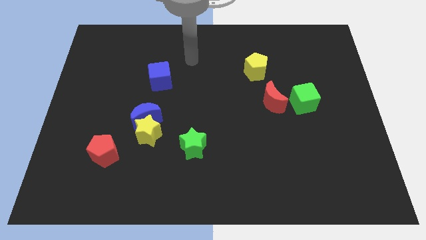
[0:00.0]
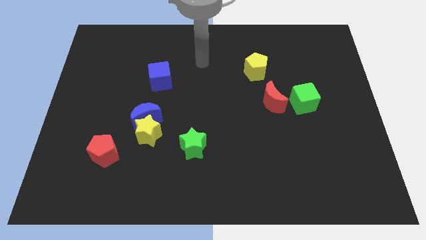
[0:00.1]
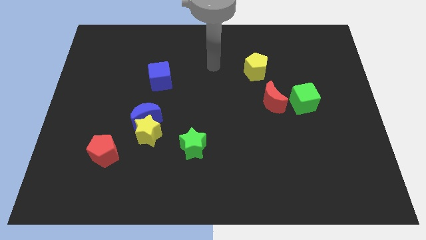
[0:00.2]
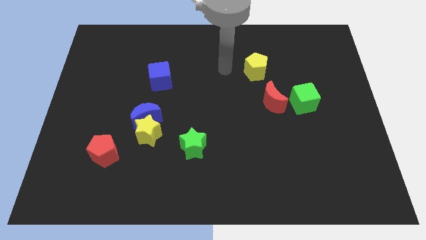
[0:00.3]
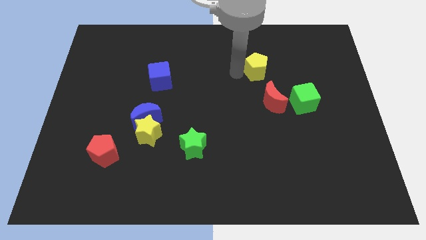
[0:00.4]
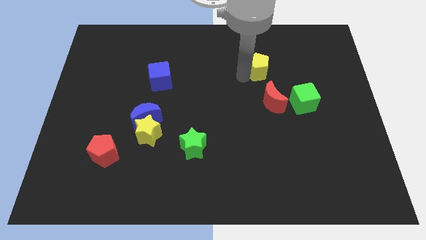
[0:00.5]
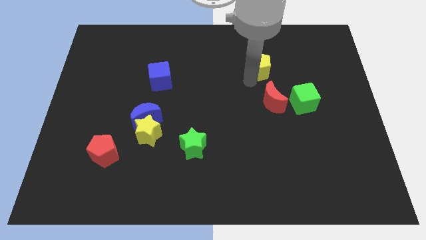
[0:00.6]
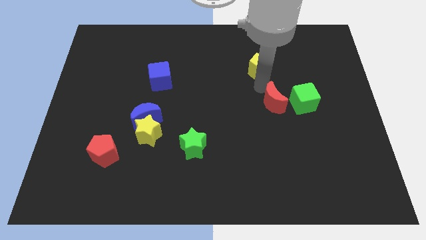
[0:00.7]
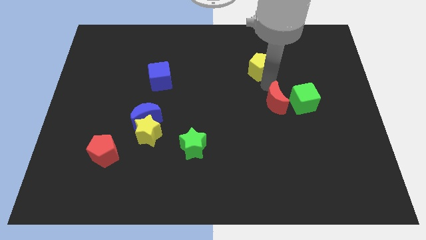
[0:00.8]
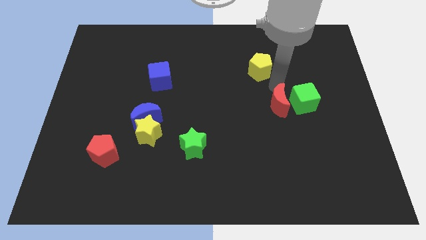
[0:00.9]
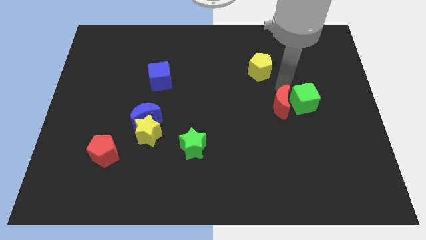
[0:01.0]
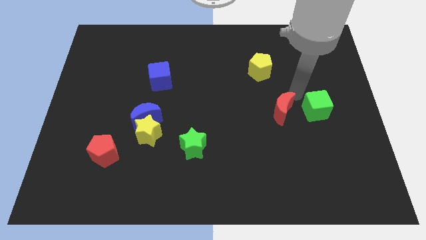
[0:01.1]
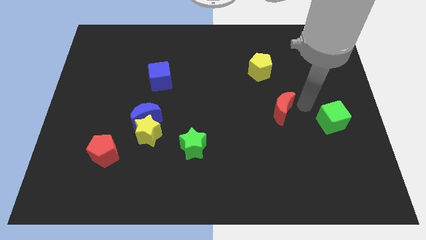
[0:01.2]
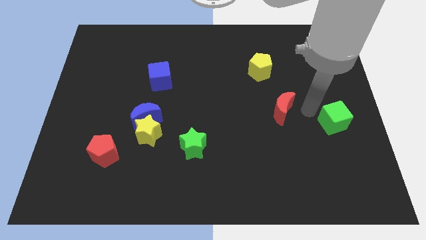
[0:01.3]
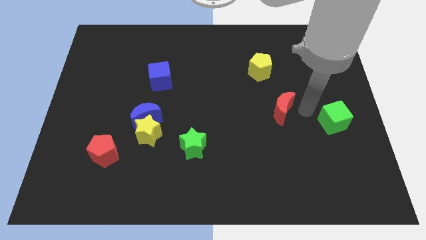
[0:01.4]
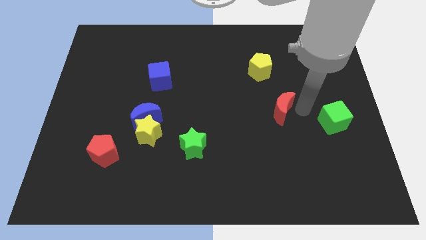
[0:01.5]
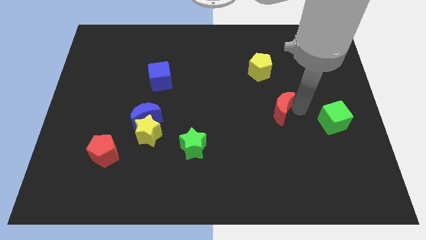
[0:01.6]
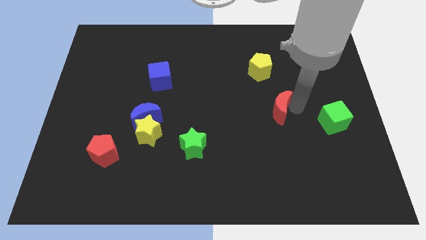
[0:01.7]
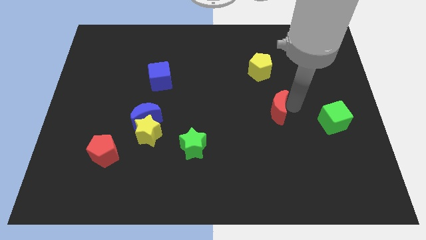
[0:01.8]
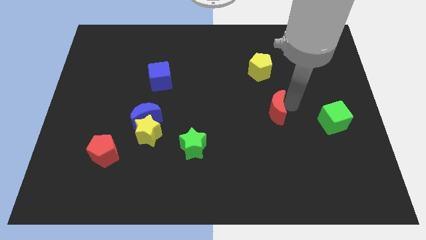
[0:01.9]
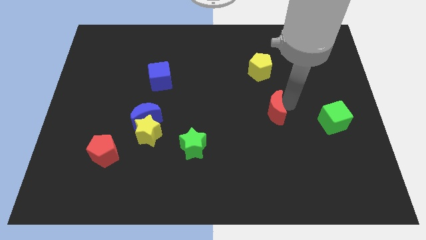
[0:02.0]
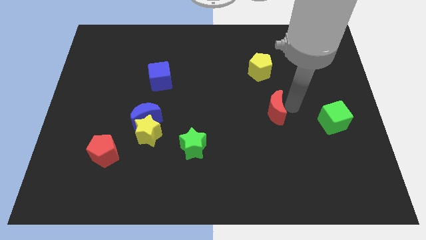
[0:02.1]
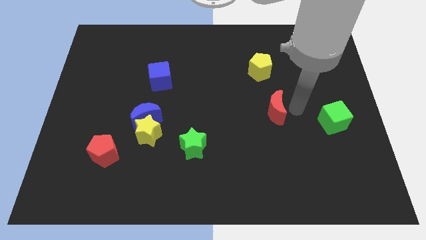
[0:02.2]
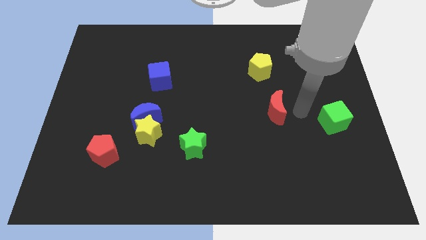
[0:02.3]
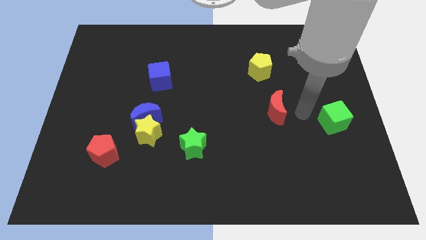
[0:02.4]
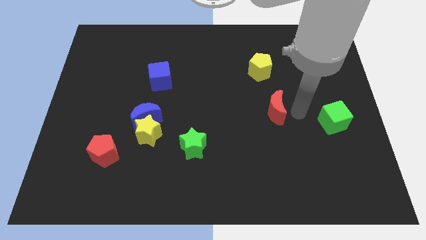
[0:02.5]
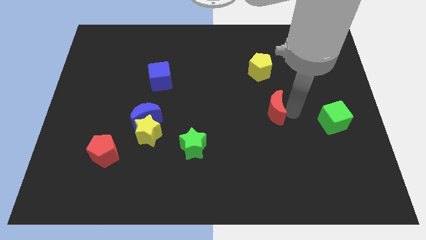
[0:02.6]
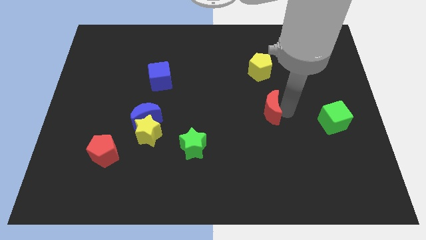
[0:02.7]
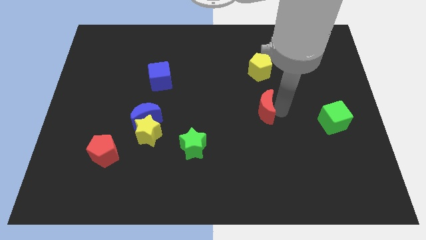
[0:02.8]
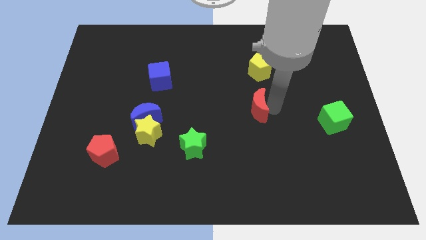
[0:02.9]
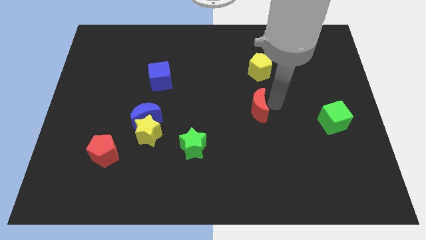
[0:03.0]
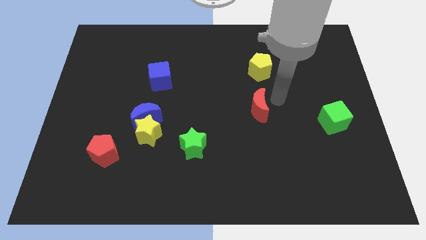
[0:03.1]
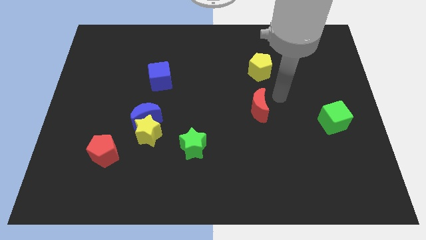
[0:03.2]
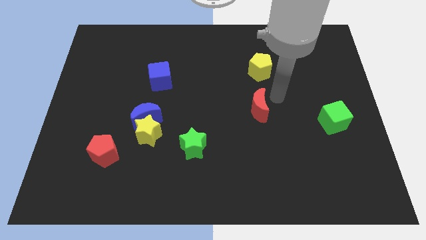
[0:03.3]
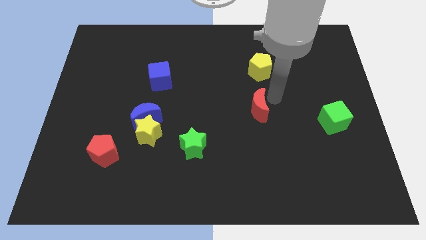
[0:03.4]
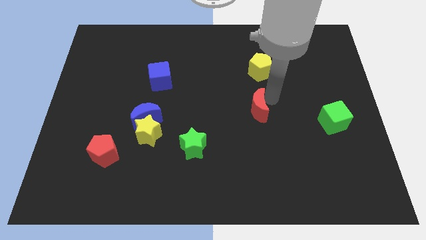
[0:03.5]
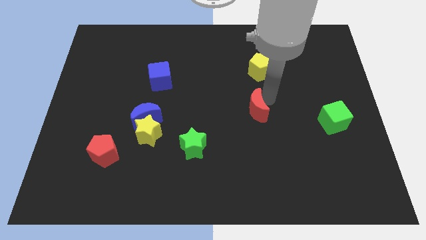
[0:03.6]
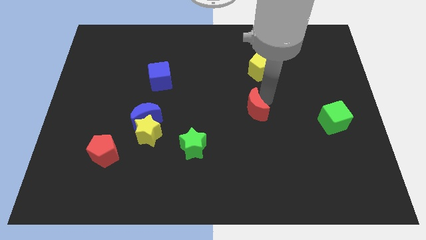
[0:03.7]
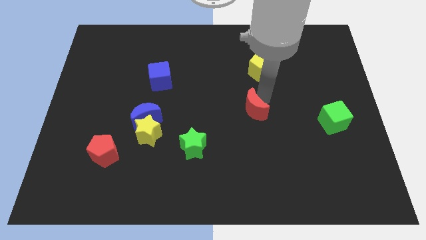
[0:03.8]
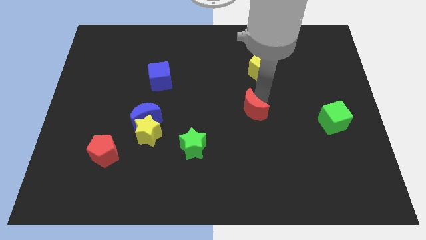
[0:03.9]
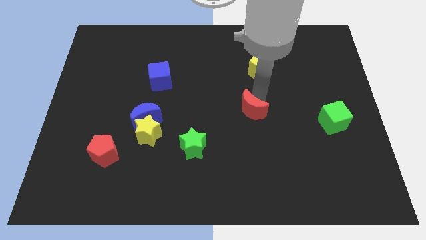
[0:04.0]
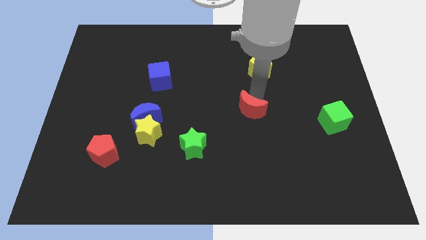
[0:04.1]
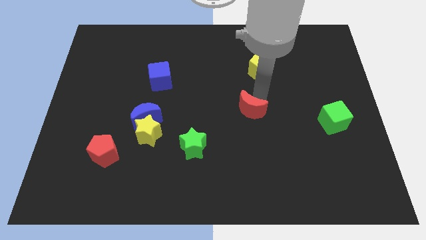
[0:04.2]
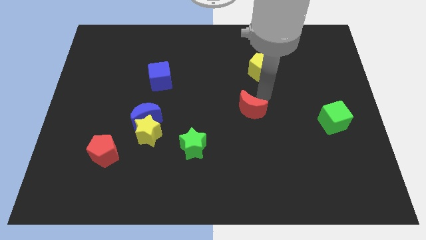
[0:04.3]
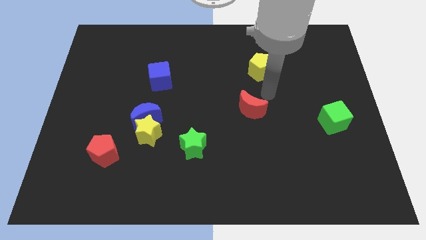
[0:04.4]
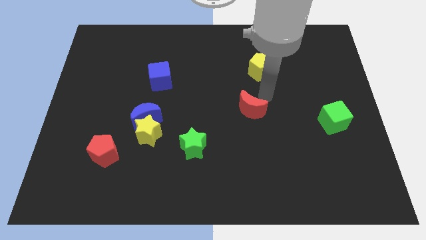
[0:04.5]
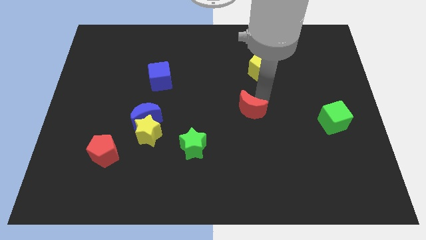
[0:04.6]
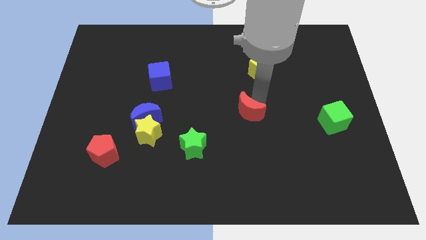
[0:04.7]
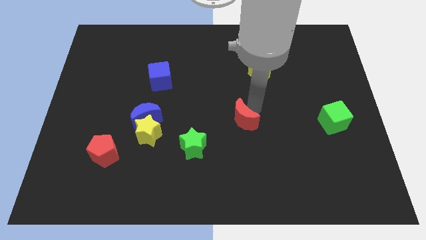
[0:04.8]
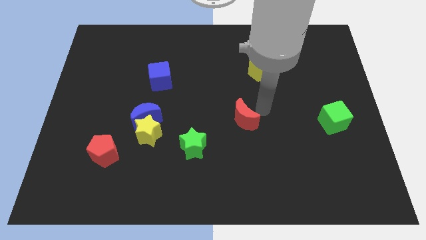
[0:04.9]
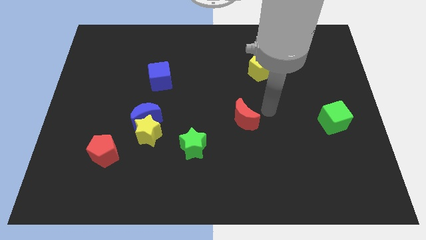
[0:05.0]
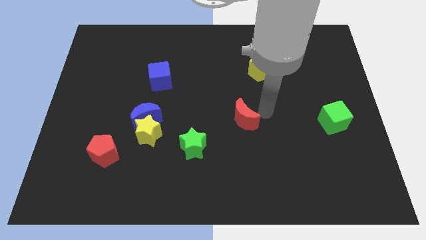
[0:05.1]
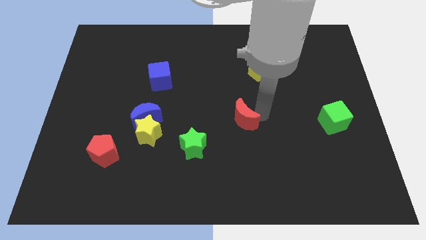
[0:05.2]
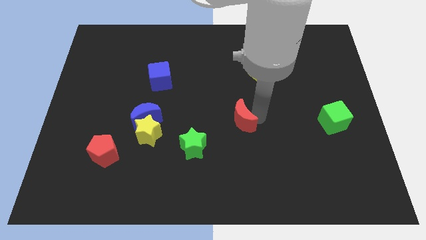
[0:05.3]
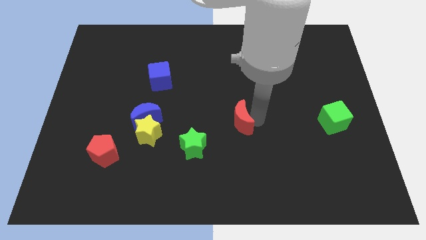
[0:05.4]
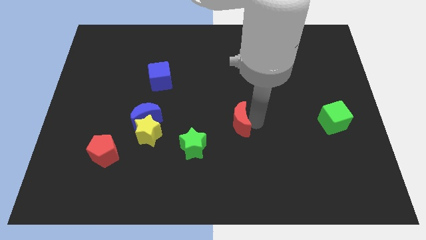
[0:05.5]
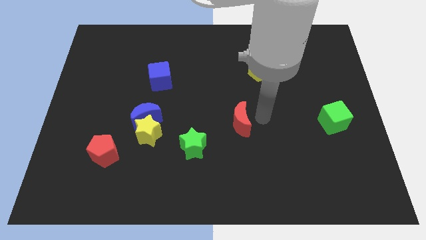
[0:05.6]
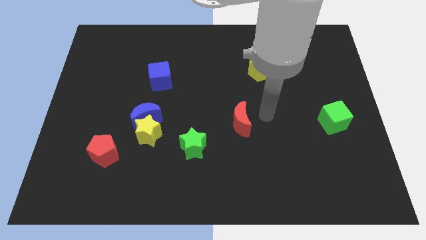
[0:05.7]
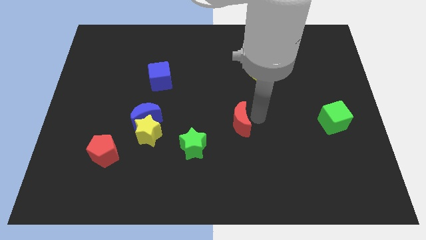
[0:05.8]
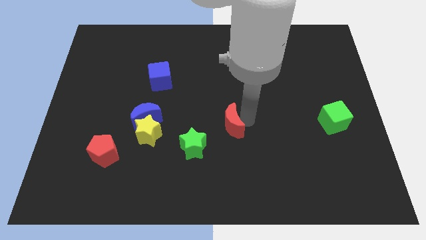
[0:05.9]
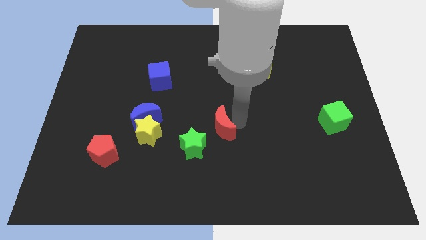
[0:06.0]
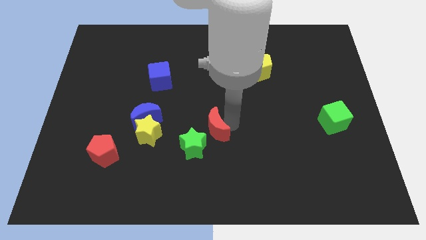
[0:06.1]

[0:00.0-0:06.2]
push the red moon right of the yellow star

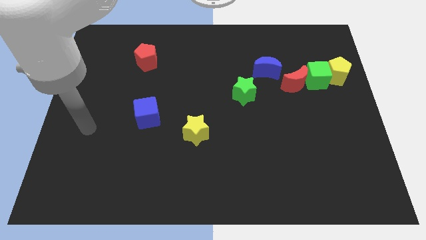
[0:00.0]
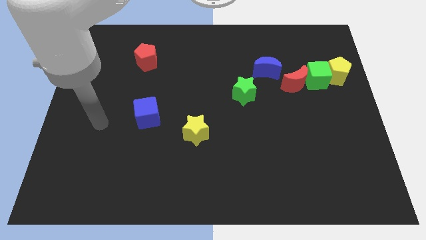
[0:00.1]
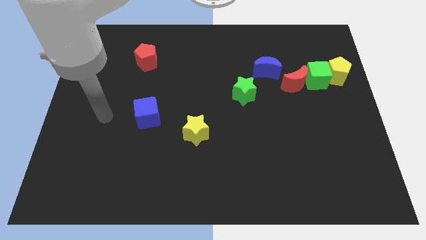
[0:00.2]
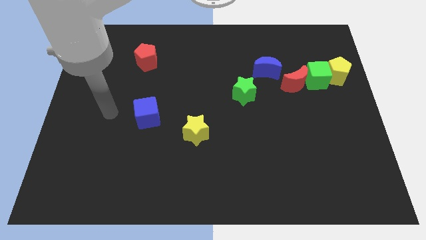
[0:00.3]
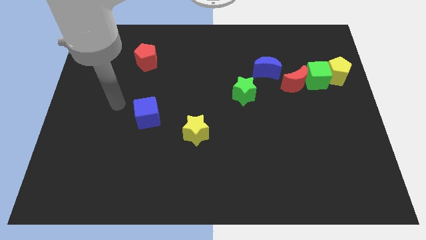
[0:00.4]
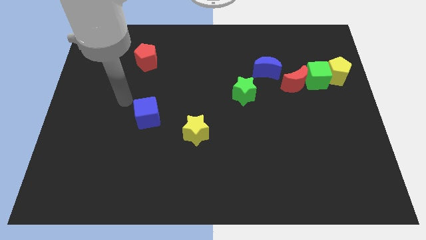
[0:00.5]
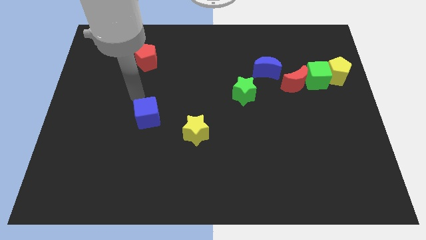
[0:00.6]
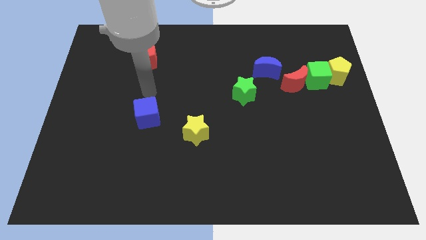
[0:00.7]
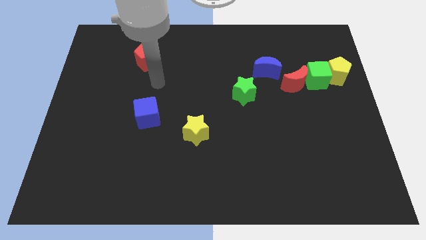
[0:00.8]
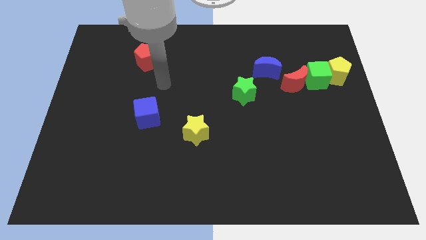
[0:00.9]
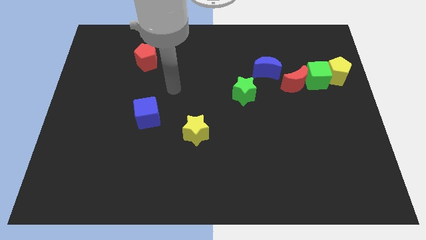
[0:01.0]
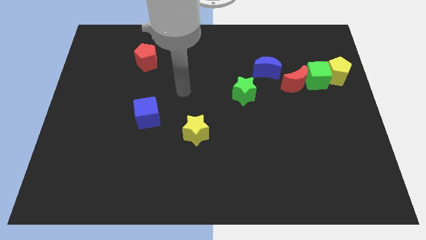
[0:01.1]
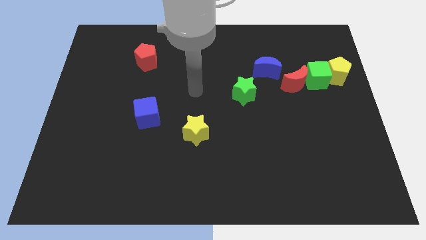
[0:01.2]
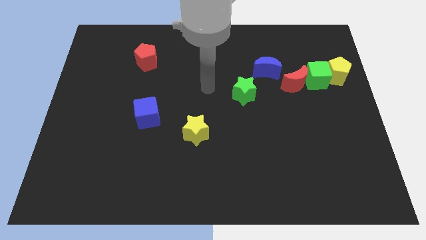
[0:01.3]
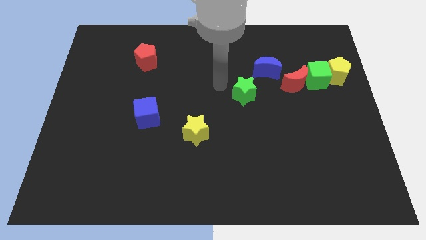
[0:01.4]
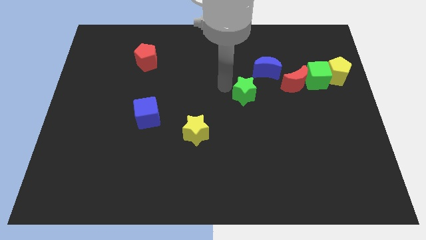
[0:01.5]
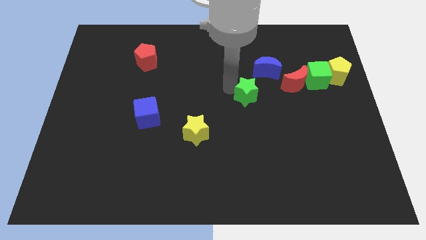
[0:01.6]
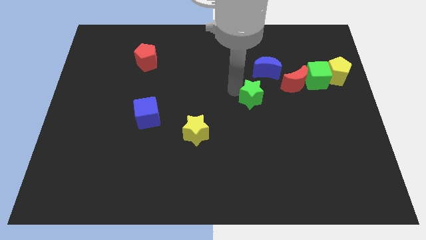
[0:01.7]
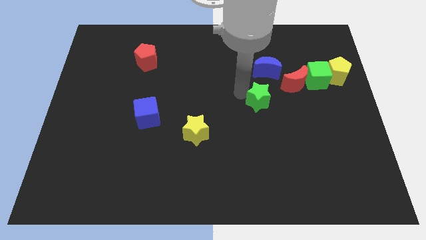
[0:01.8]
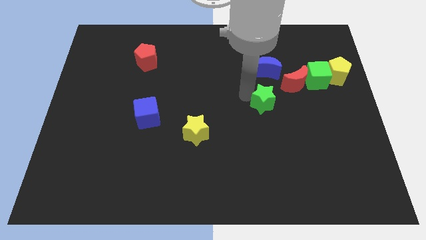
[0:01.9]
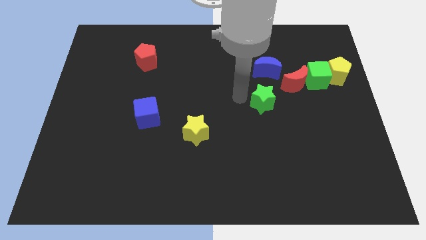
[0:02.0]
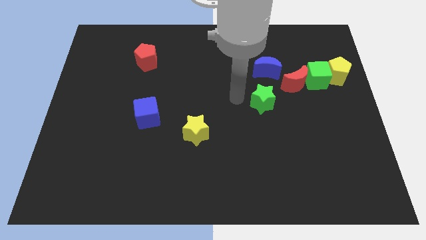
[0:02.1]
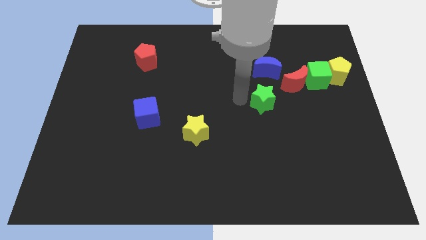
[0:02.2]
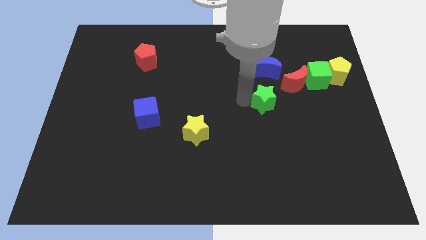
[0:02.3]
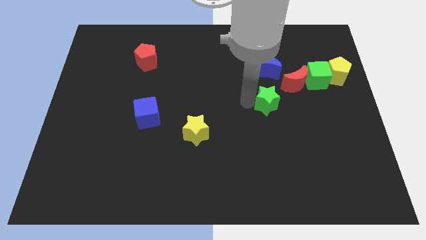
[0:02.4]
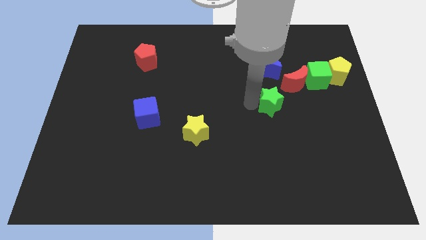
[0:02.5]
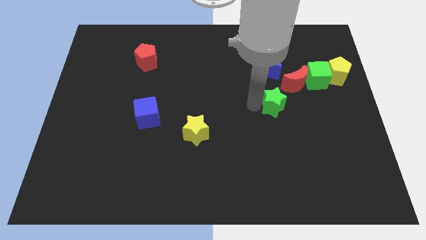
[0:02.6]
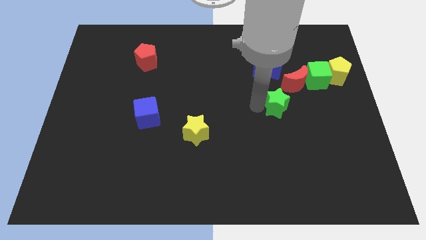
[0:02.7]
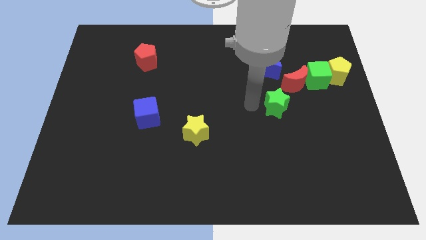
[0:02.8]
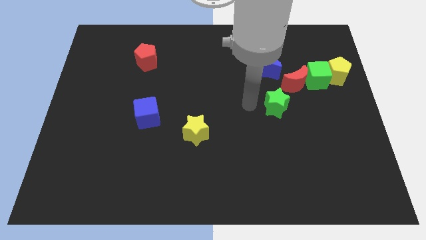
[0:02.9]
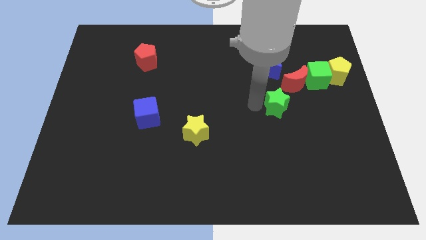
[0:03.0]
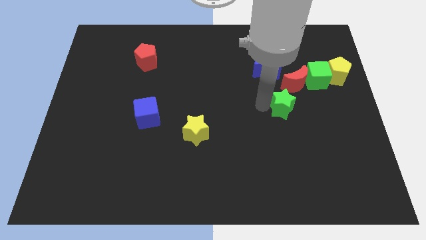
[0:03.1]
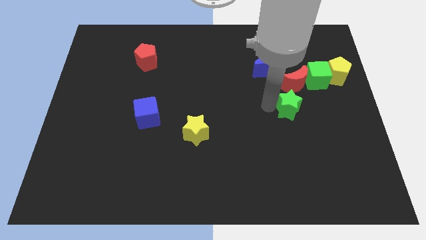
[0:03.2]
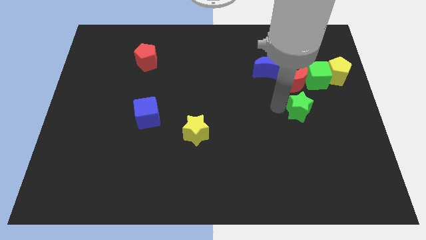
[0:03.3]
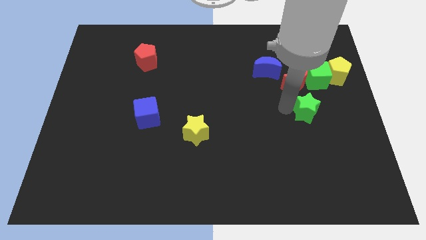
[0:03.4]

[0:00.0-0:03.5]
move the green star below the green cube
